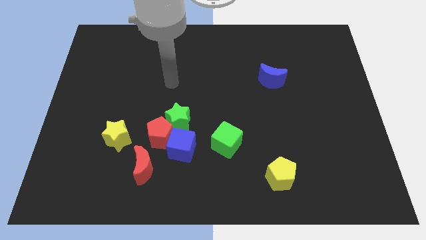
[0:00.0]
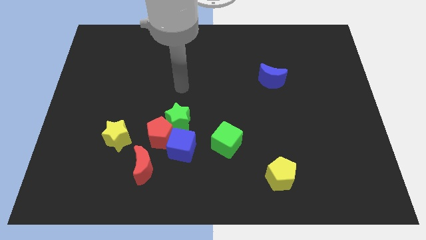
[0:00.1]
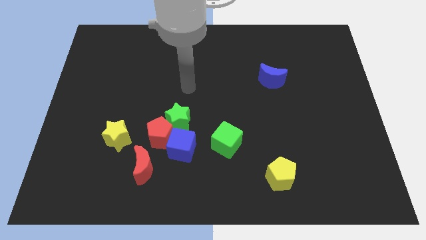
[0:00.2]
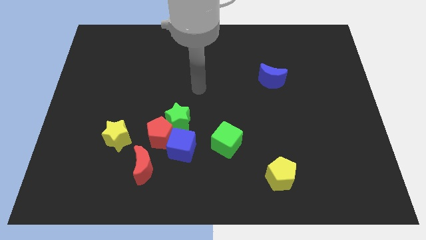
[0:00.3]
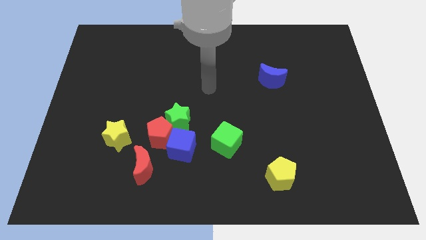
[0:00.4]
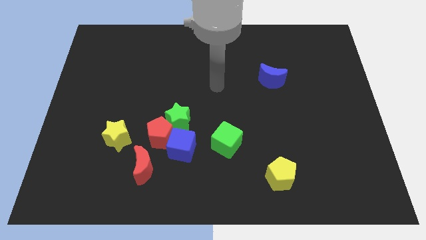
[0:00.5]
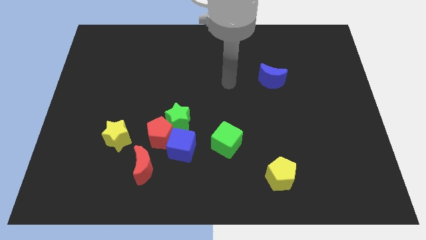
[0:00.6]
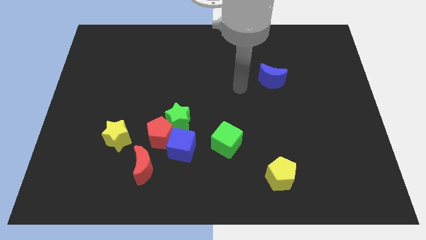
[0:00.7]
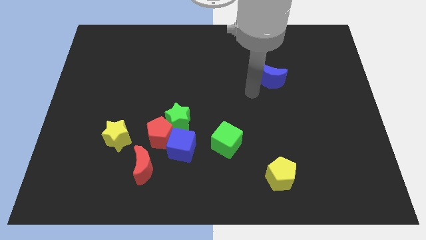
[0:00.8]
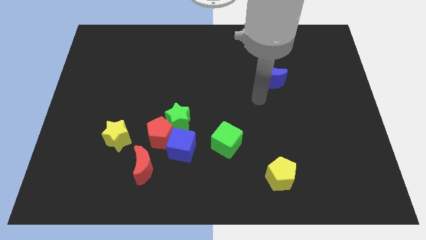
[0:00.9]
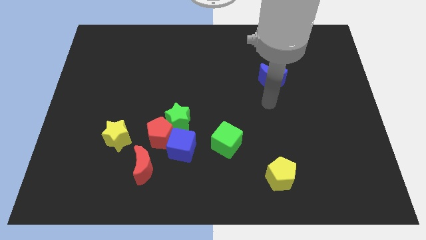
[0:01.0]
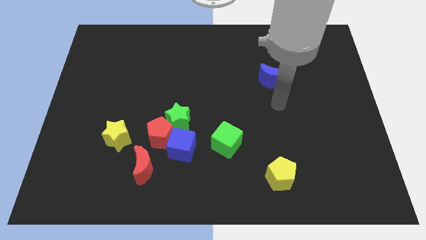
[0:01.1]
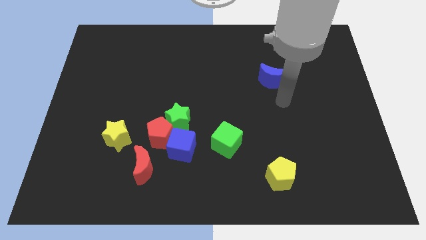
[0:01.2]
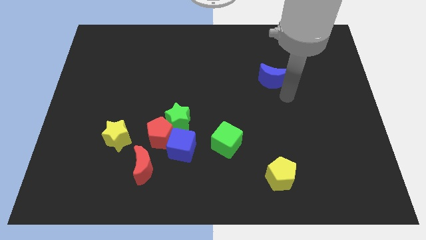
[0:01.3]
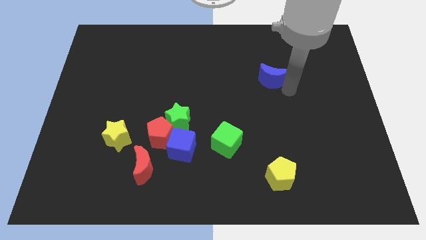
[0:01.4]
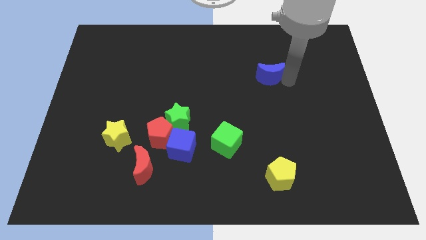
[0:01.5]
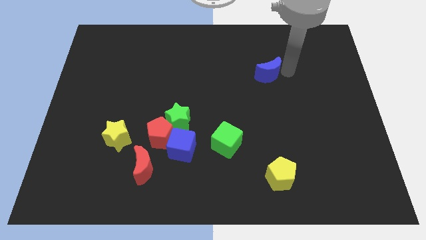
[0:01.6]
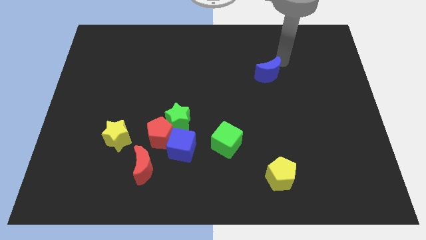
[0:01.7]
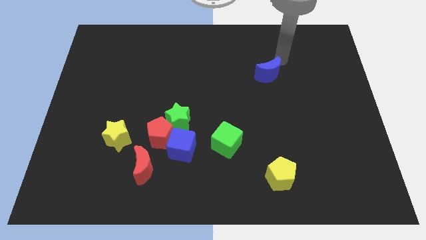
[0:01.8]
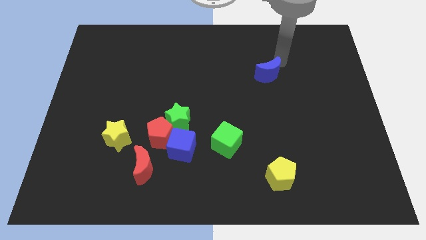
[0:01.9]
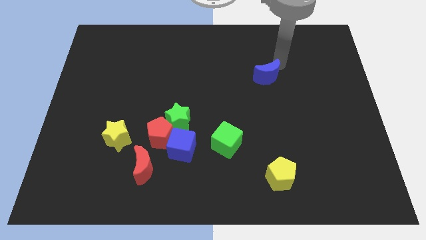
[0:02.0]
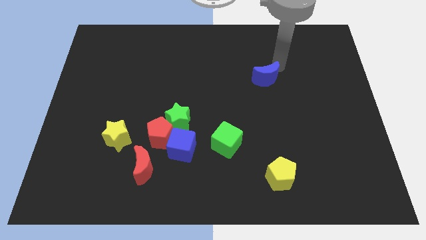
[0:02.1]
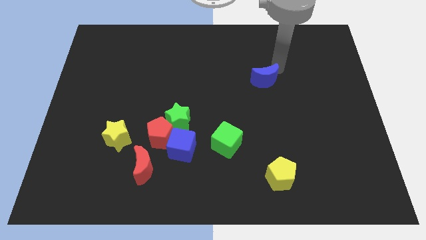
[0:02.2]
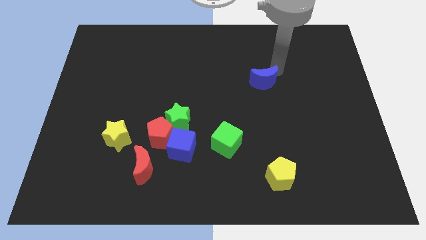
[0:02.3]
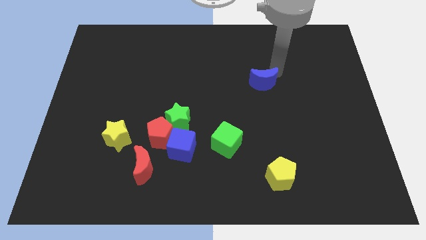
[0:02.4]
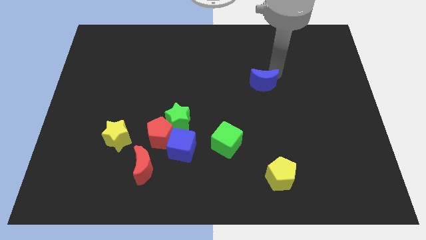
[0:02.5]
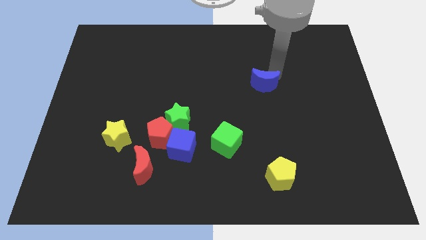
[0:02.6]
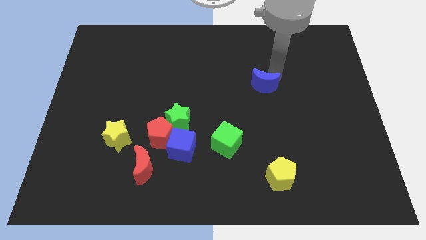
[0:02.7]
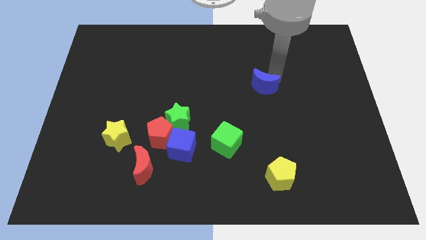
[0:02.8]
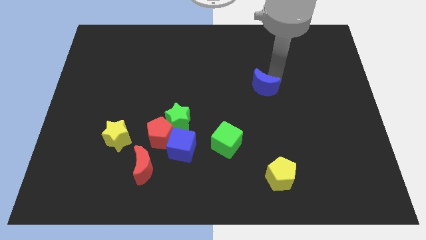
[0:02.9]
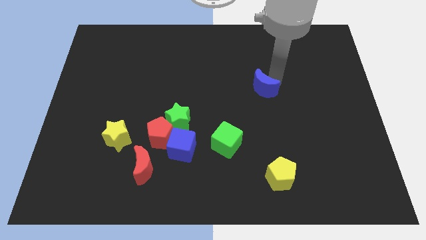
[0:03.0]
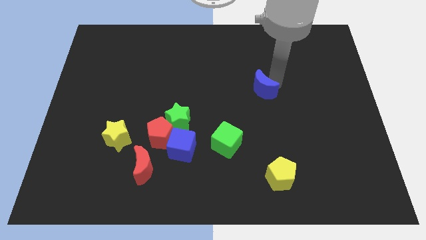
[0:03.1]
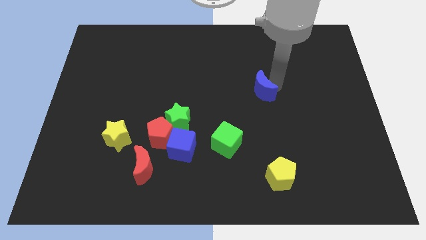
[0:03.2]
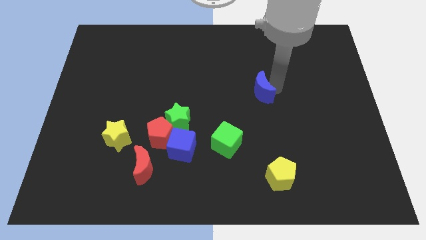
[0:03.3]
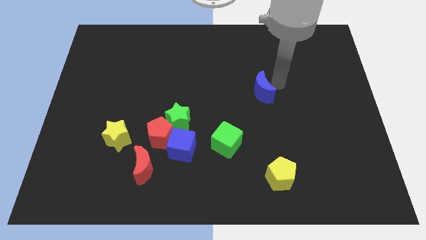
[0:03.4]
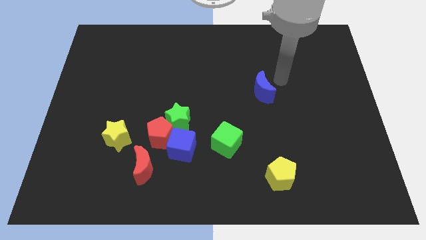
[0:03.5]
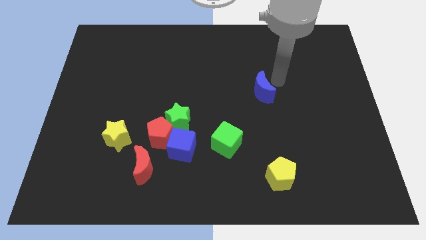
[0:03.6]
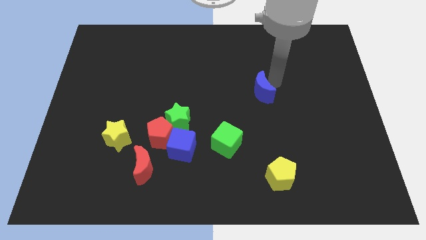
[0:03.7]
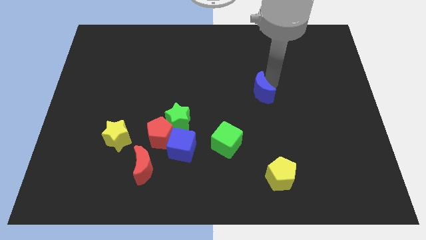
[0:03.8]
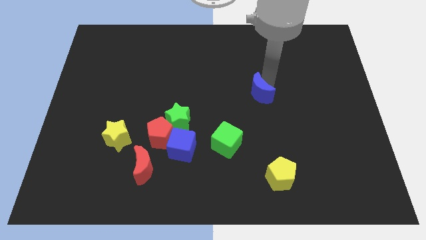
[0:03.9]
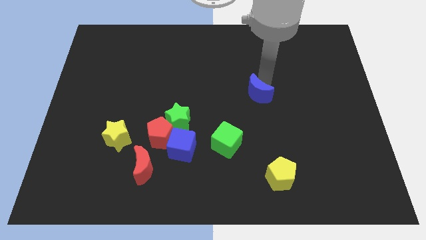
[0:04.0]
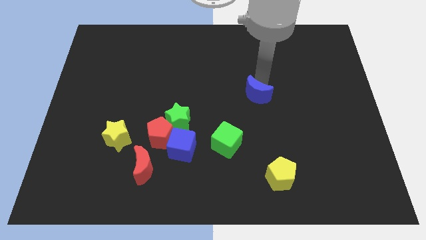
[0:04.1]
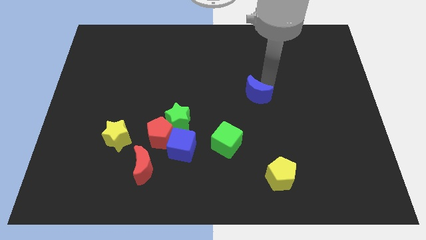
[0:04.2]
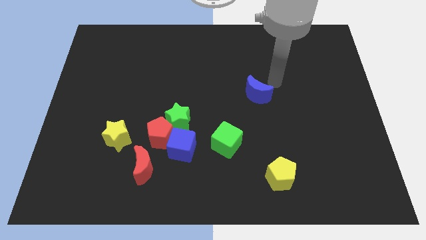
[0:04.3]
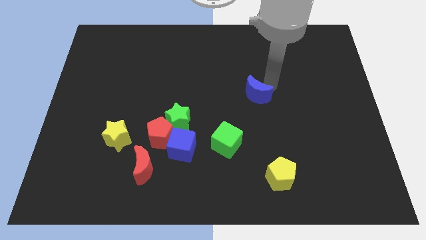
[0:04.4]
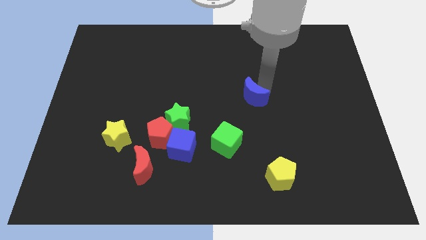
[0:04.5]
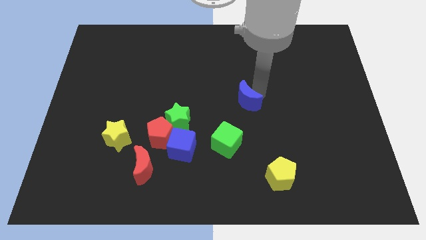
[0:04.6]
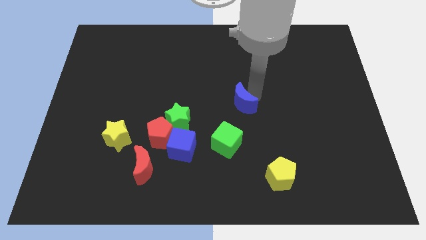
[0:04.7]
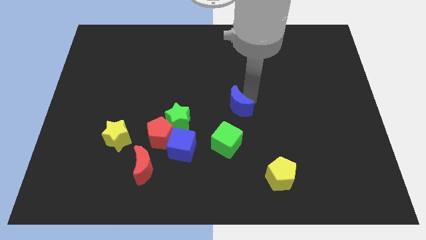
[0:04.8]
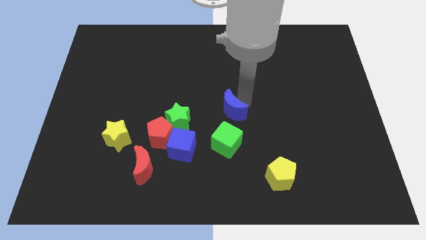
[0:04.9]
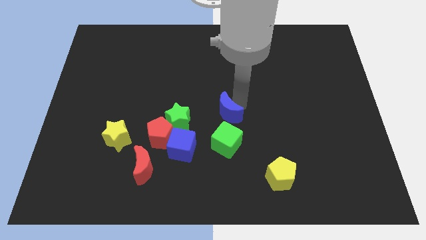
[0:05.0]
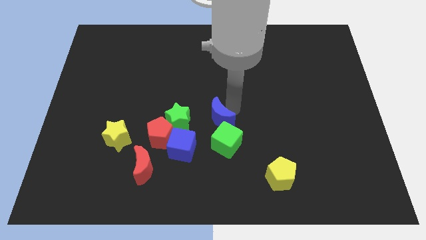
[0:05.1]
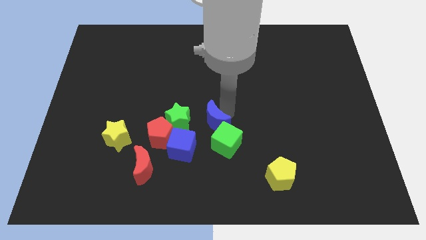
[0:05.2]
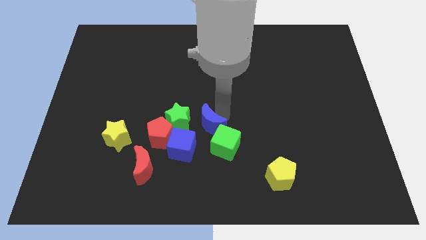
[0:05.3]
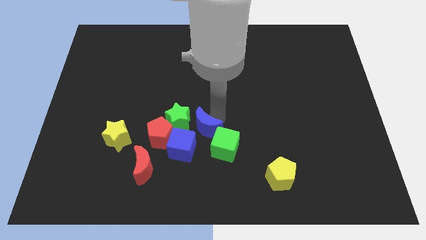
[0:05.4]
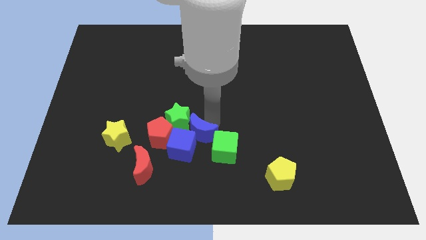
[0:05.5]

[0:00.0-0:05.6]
put the blue moon next to the blue cube

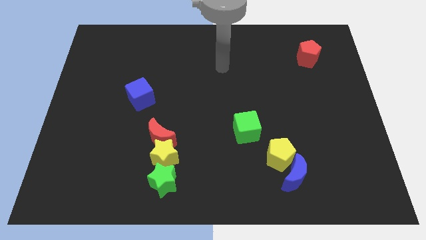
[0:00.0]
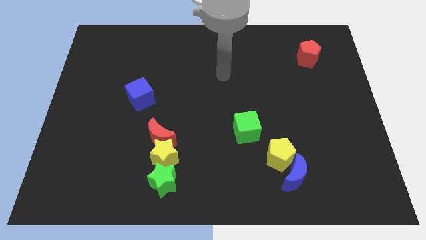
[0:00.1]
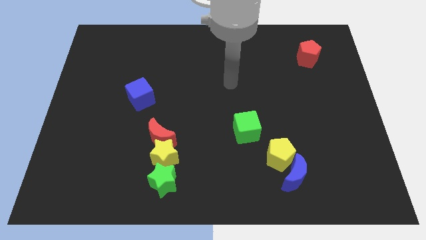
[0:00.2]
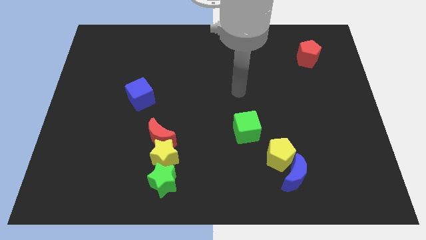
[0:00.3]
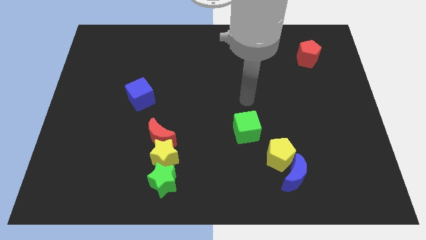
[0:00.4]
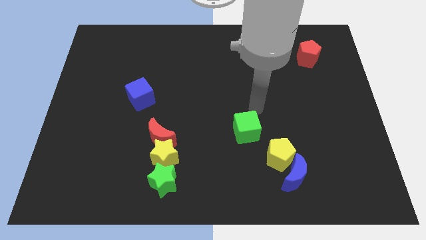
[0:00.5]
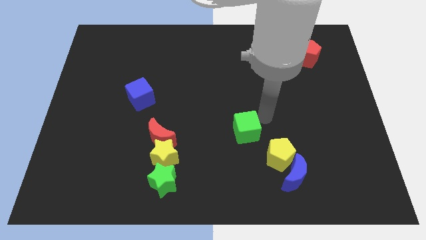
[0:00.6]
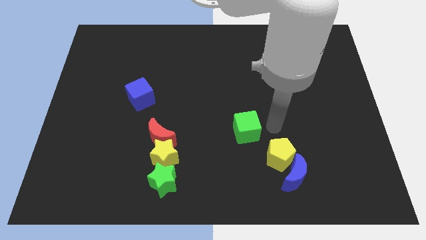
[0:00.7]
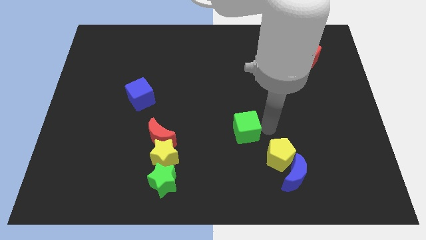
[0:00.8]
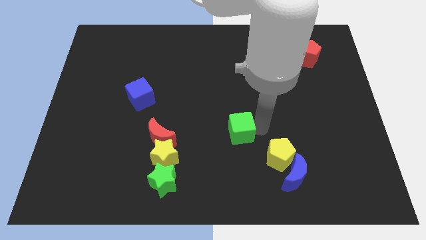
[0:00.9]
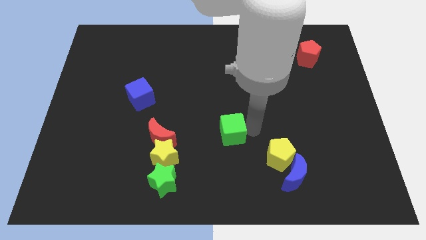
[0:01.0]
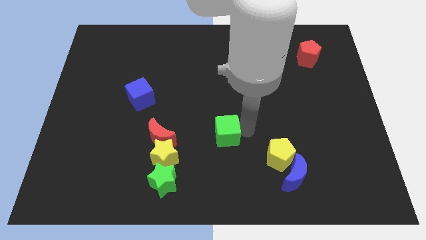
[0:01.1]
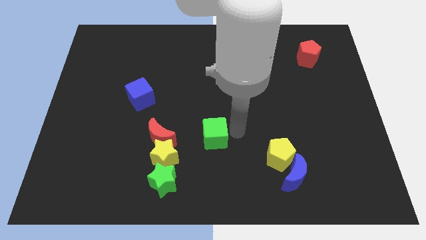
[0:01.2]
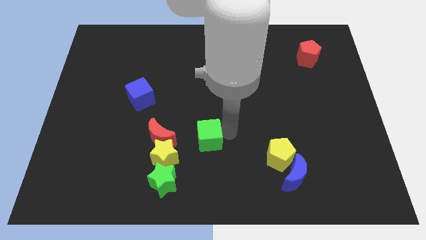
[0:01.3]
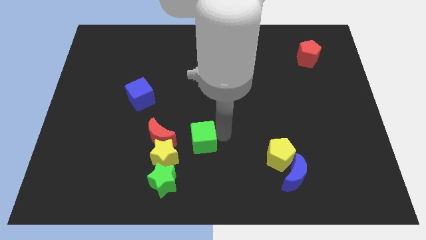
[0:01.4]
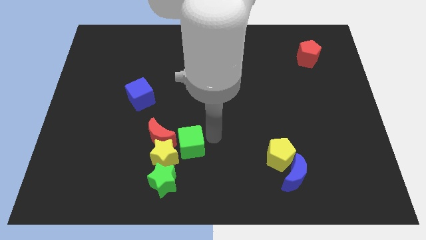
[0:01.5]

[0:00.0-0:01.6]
move the green cube towards the yellow star
